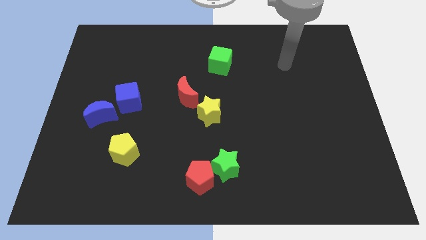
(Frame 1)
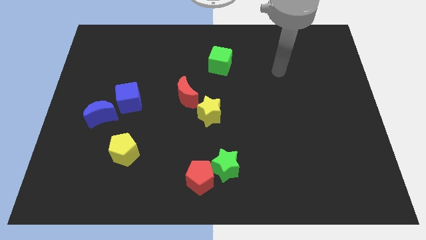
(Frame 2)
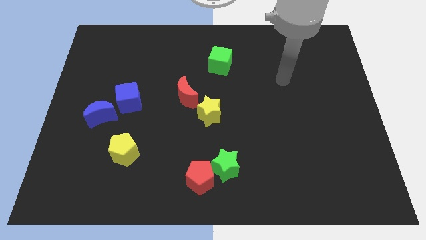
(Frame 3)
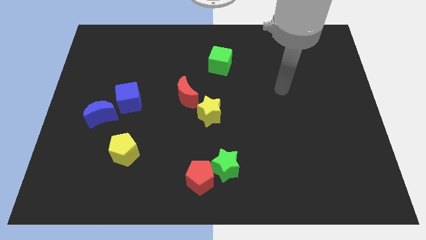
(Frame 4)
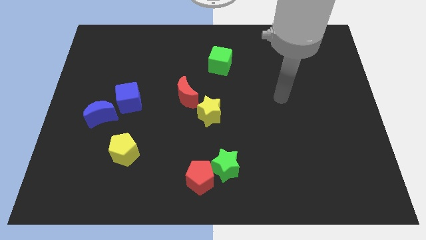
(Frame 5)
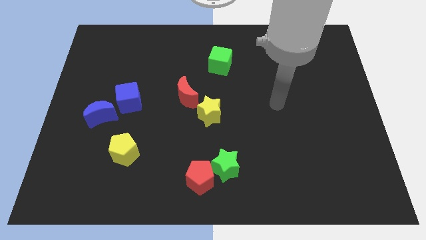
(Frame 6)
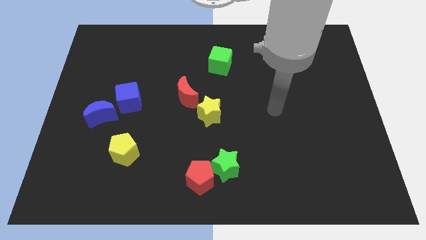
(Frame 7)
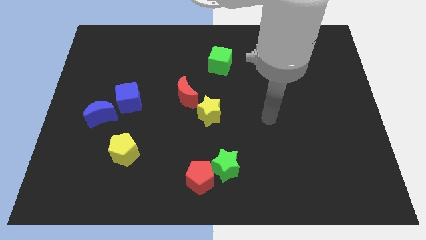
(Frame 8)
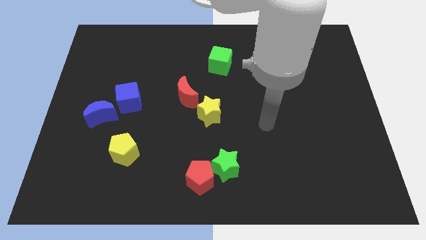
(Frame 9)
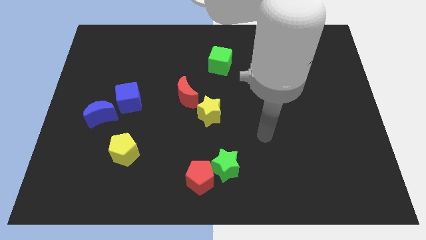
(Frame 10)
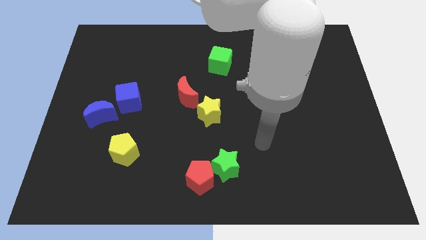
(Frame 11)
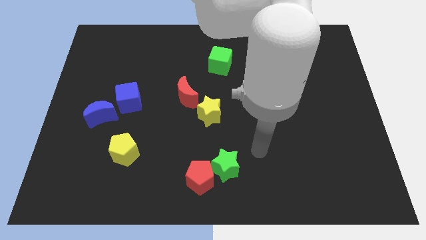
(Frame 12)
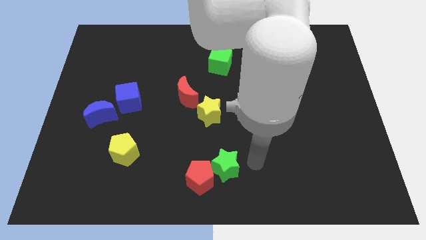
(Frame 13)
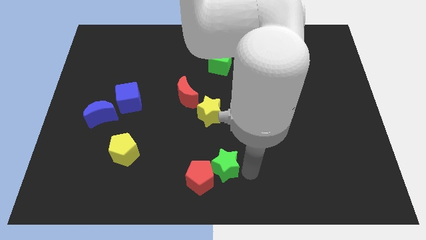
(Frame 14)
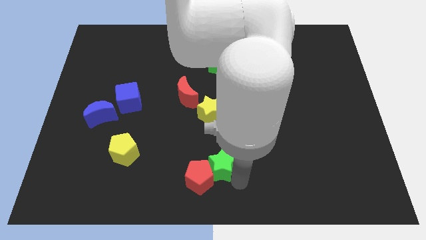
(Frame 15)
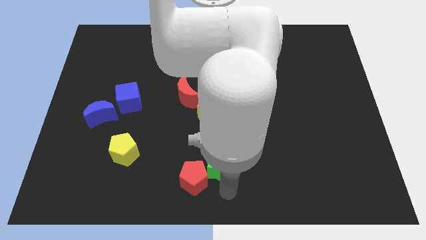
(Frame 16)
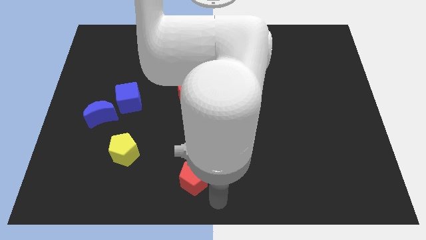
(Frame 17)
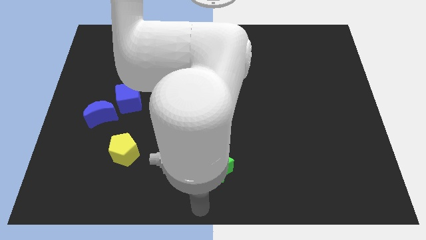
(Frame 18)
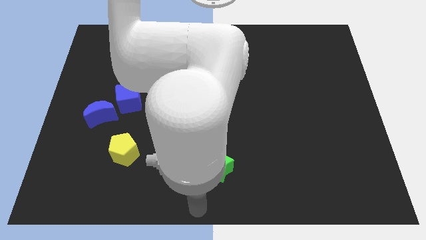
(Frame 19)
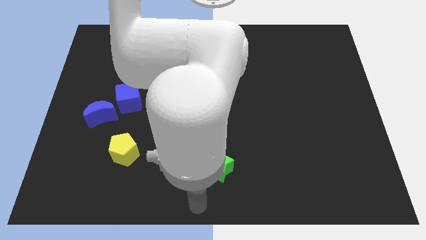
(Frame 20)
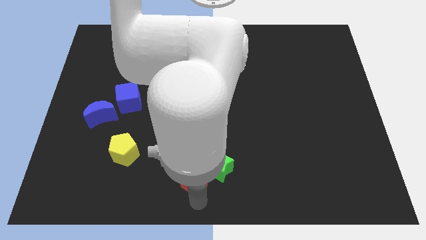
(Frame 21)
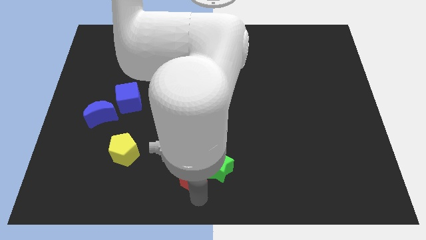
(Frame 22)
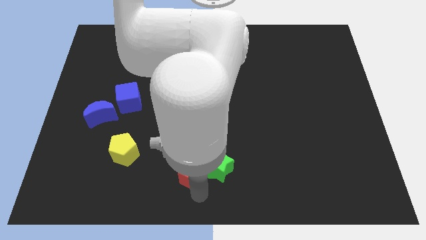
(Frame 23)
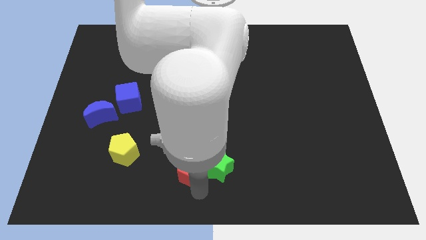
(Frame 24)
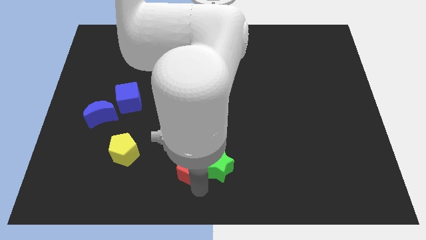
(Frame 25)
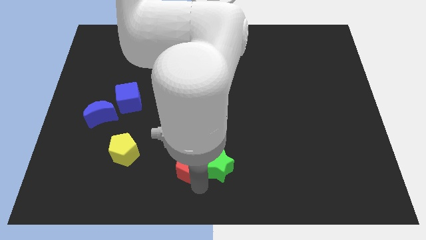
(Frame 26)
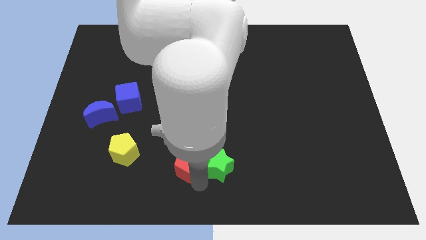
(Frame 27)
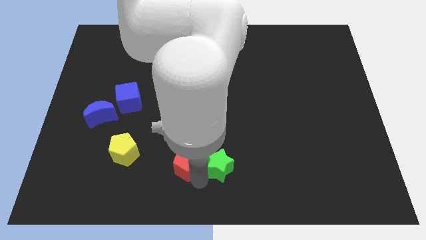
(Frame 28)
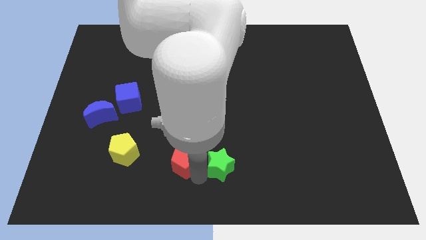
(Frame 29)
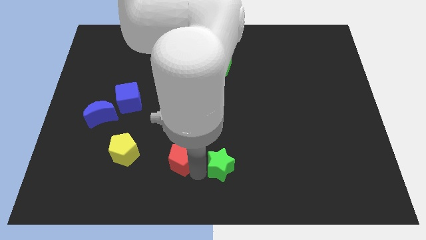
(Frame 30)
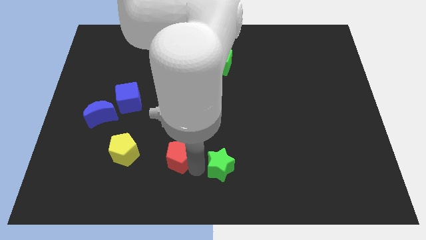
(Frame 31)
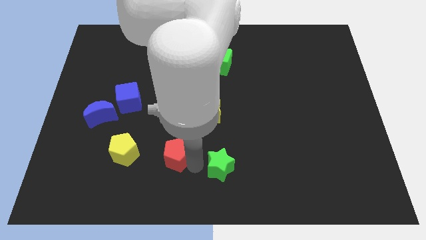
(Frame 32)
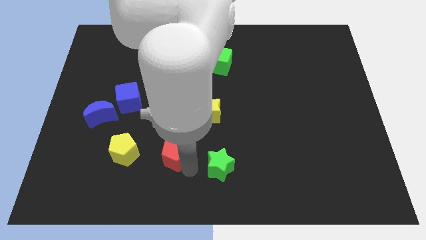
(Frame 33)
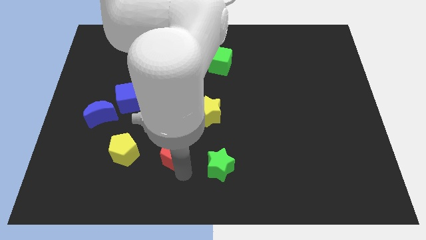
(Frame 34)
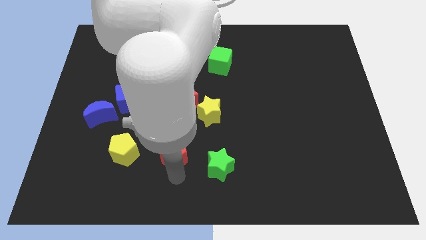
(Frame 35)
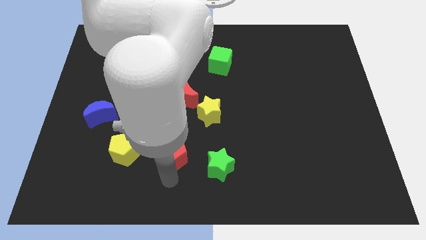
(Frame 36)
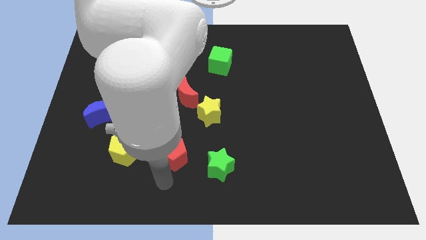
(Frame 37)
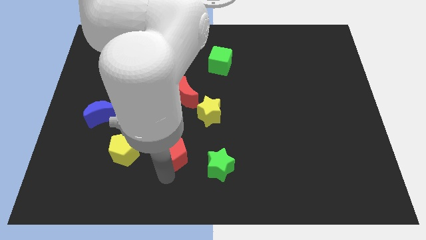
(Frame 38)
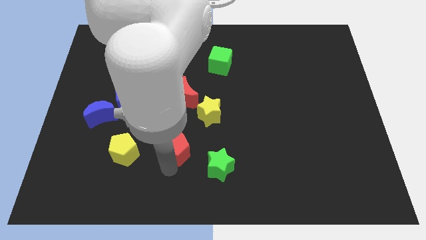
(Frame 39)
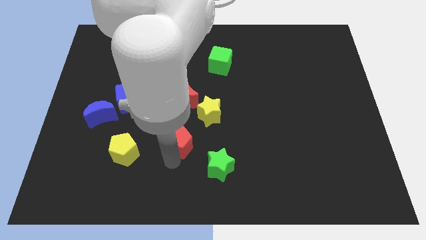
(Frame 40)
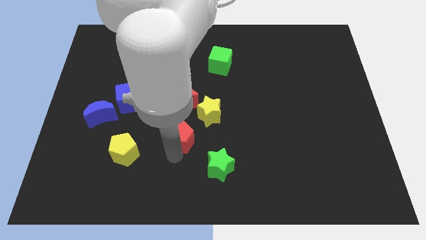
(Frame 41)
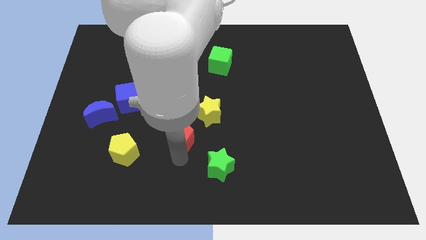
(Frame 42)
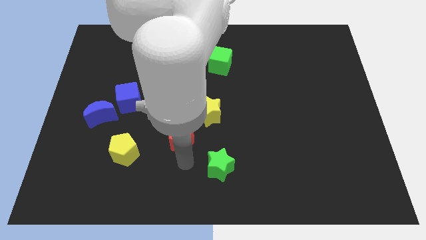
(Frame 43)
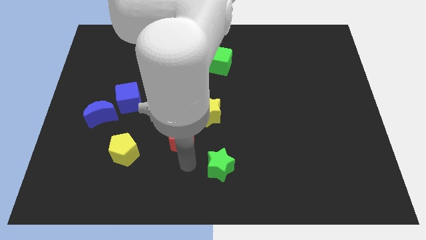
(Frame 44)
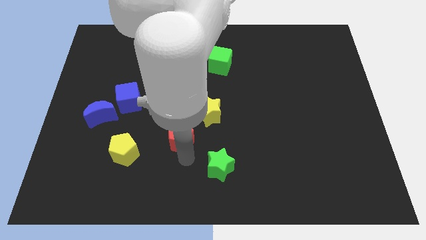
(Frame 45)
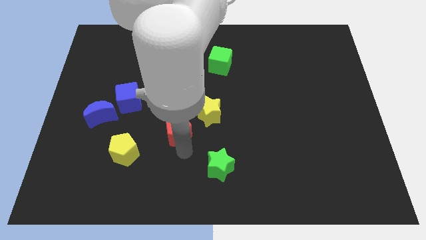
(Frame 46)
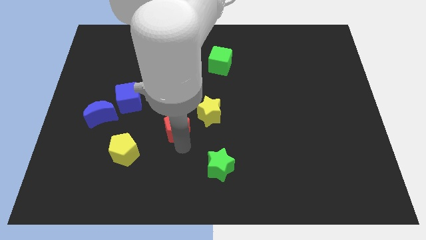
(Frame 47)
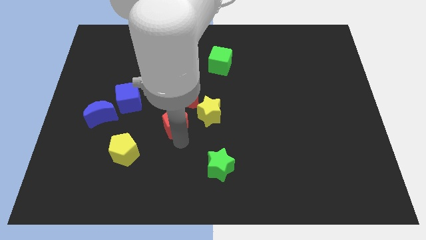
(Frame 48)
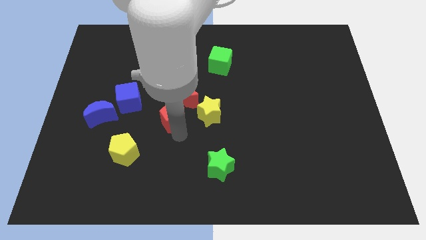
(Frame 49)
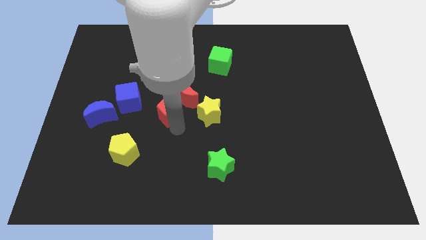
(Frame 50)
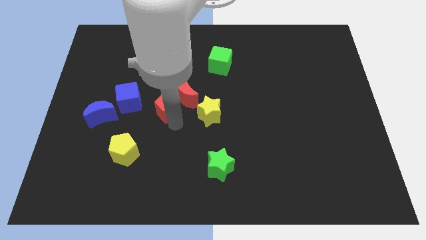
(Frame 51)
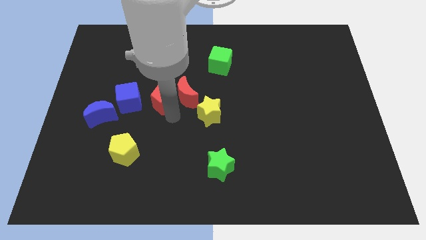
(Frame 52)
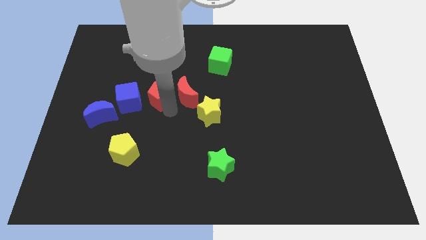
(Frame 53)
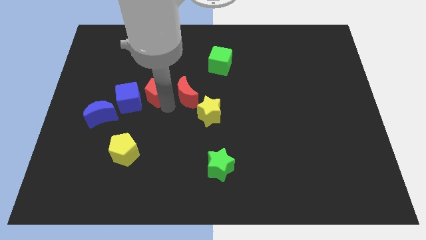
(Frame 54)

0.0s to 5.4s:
move the red pentagon up and then left

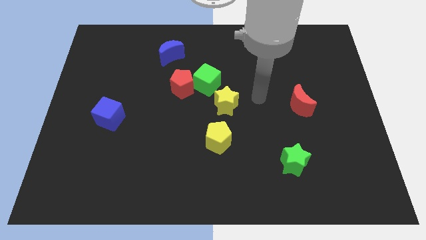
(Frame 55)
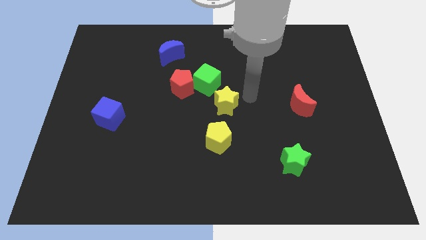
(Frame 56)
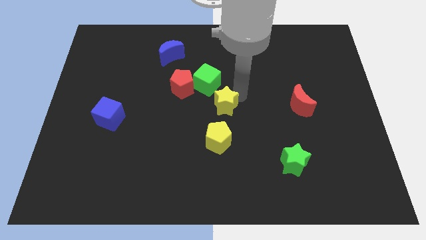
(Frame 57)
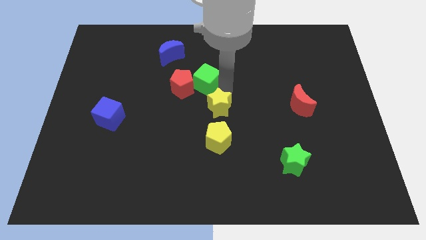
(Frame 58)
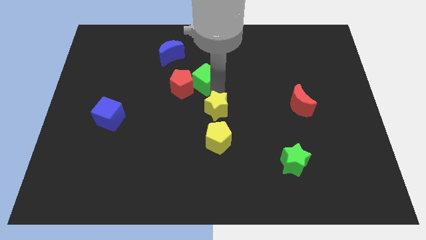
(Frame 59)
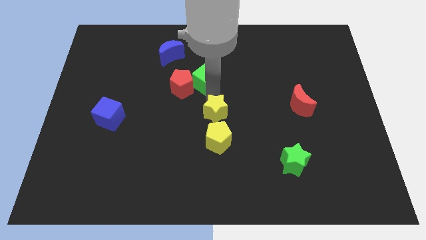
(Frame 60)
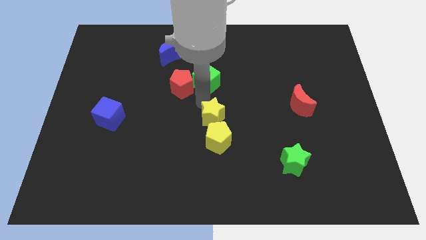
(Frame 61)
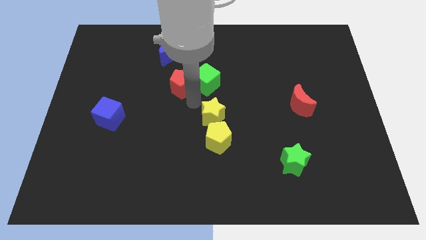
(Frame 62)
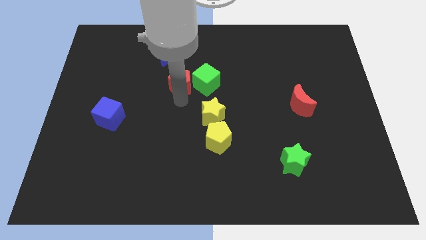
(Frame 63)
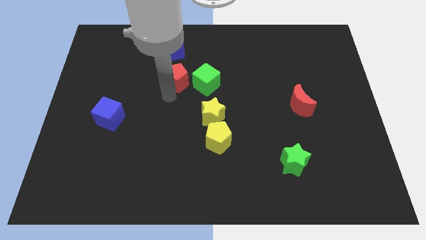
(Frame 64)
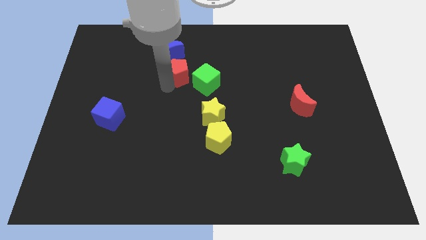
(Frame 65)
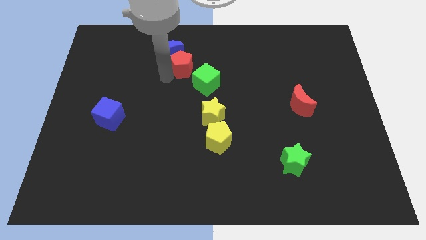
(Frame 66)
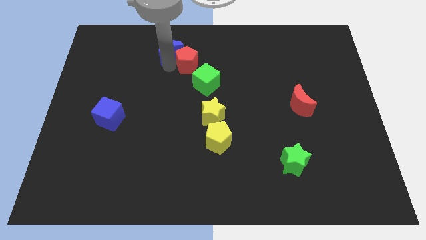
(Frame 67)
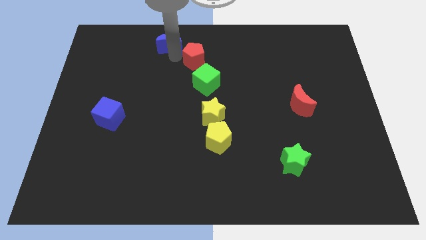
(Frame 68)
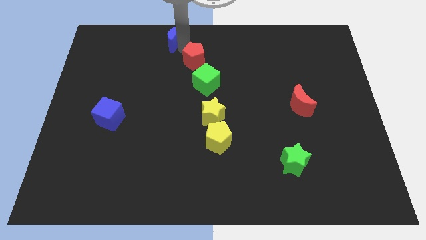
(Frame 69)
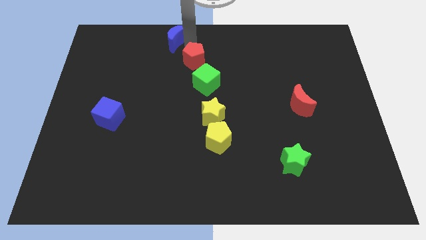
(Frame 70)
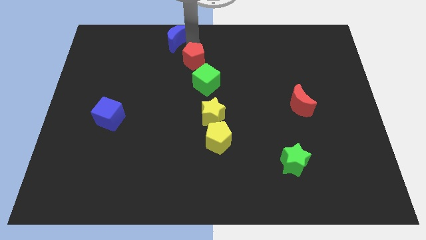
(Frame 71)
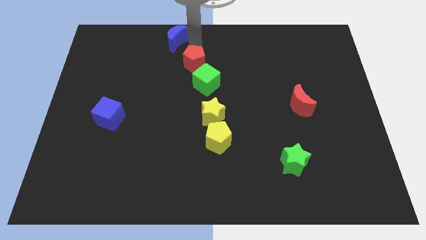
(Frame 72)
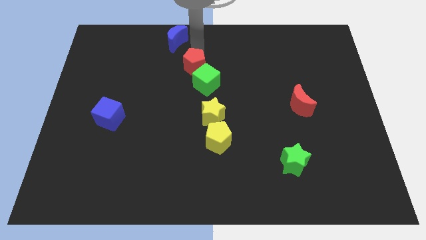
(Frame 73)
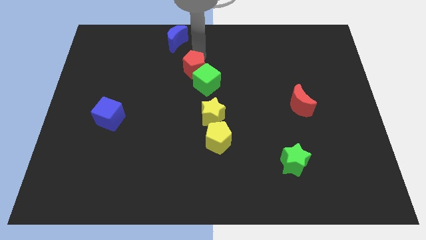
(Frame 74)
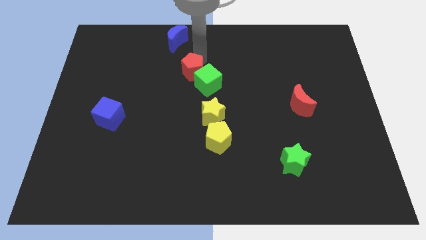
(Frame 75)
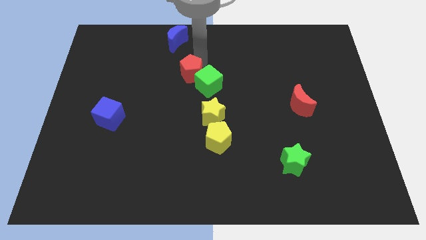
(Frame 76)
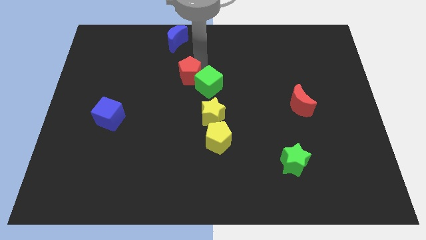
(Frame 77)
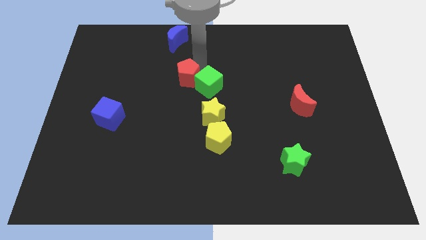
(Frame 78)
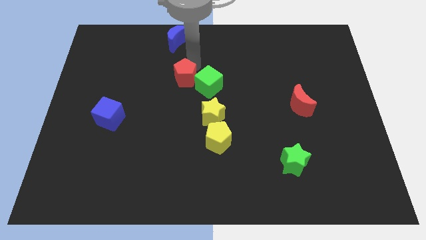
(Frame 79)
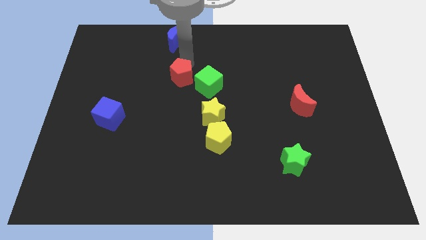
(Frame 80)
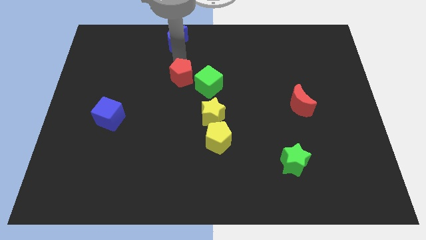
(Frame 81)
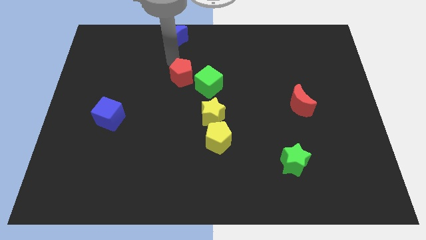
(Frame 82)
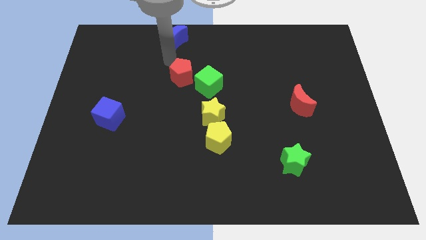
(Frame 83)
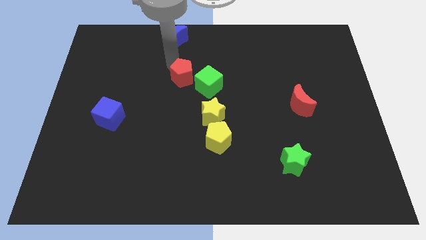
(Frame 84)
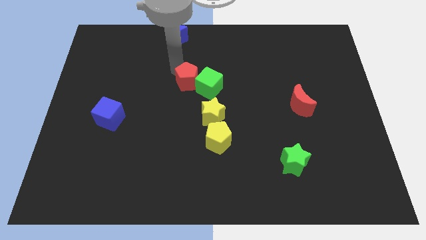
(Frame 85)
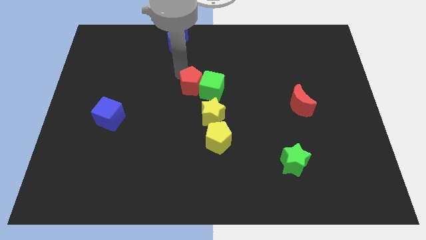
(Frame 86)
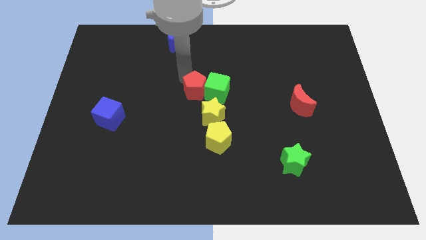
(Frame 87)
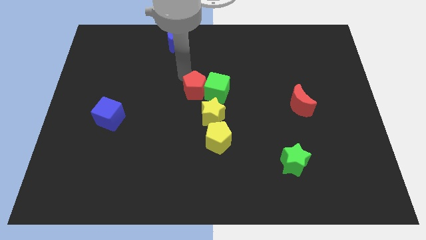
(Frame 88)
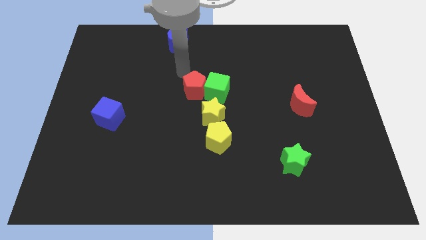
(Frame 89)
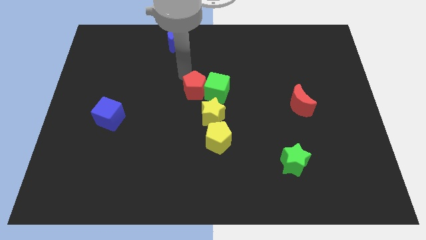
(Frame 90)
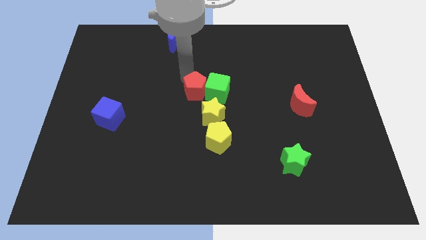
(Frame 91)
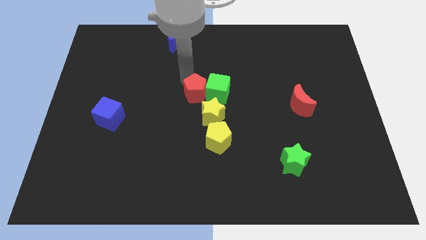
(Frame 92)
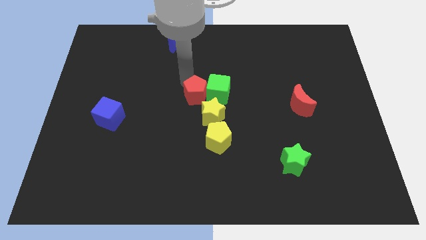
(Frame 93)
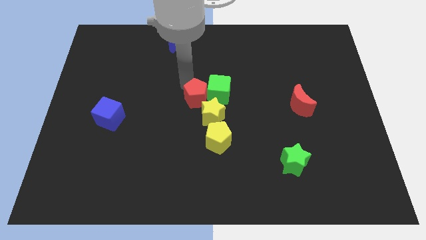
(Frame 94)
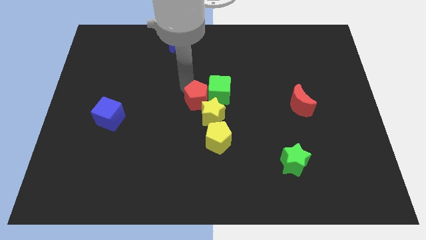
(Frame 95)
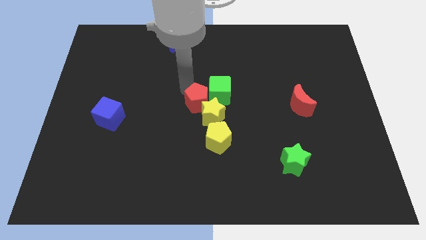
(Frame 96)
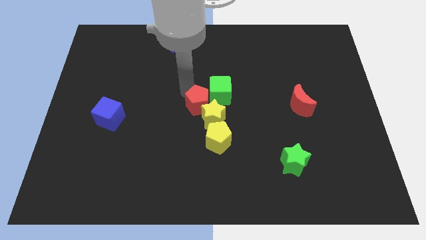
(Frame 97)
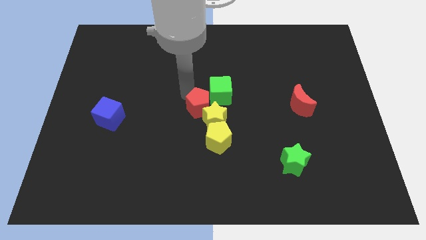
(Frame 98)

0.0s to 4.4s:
slightly slide the red pentagon down and right diagonally
